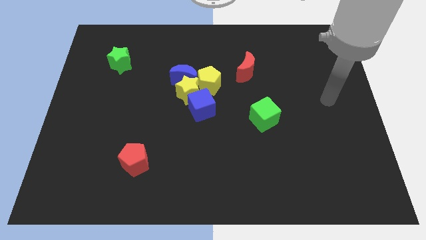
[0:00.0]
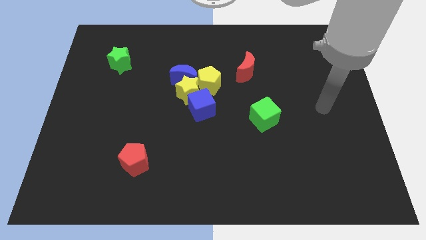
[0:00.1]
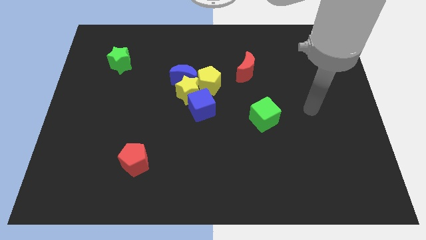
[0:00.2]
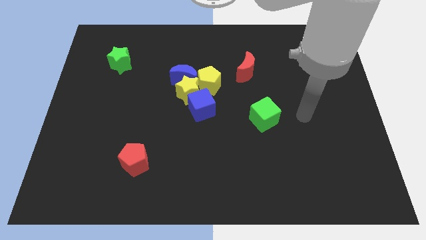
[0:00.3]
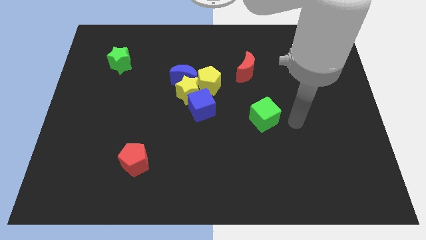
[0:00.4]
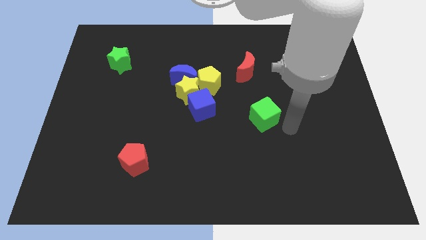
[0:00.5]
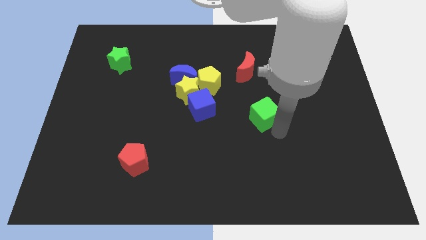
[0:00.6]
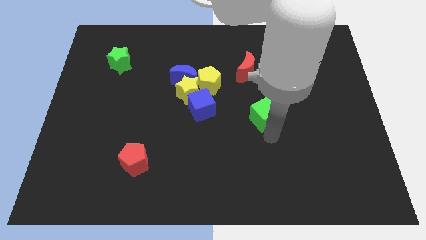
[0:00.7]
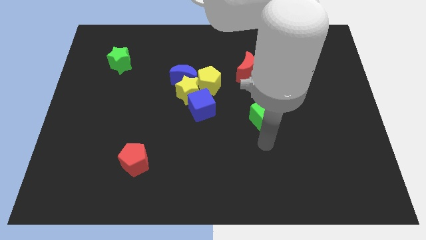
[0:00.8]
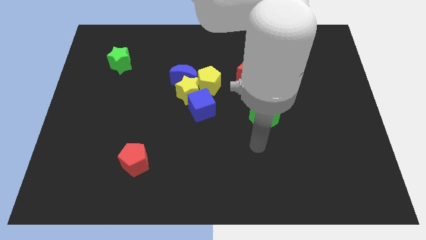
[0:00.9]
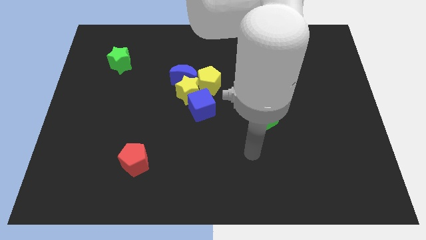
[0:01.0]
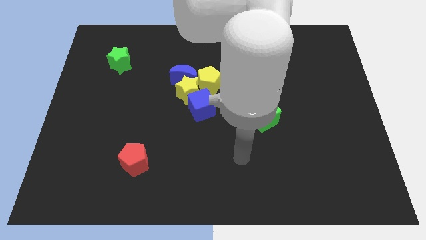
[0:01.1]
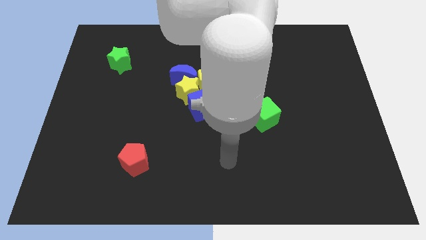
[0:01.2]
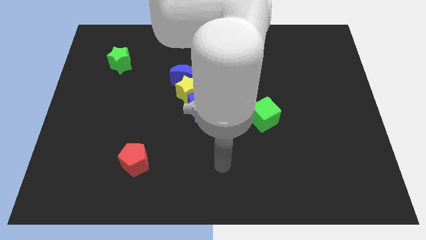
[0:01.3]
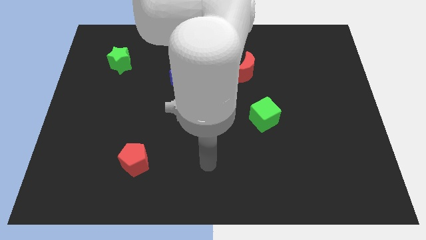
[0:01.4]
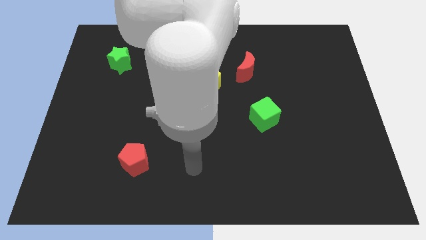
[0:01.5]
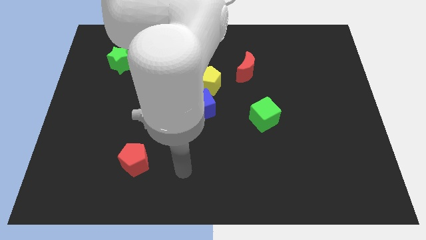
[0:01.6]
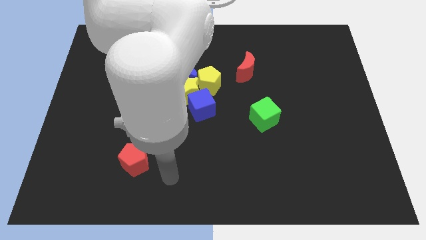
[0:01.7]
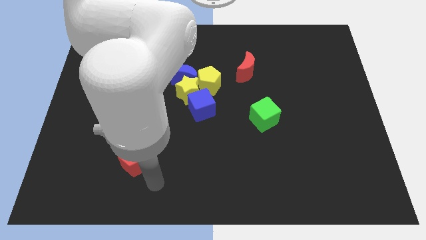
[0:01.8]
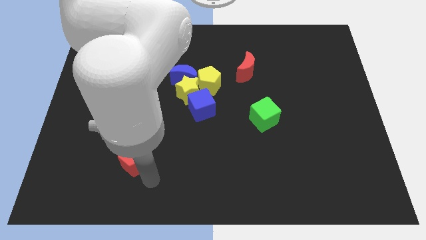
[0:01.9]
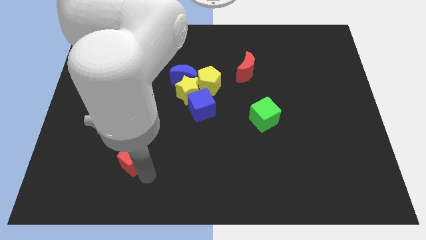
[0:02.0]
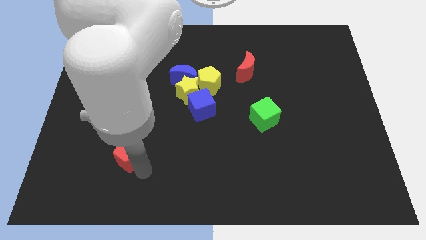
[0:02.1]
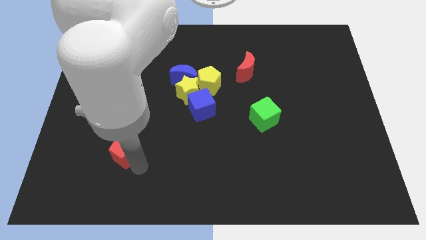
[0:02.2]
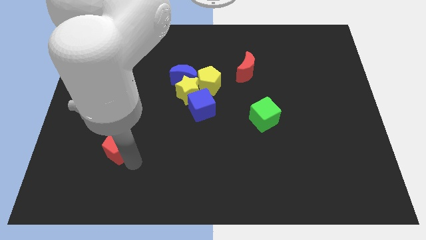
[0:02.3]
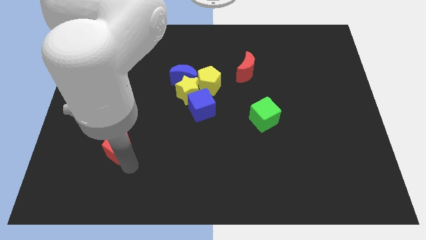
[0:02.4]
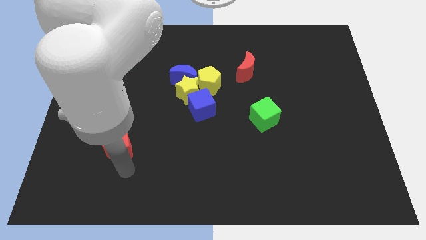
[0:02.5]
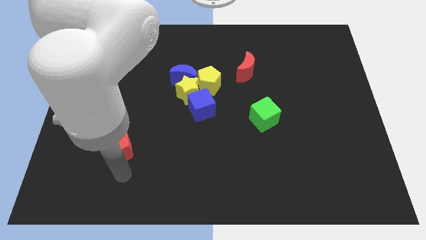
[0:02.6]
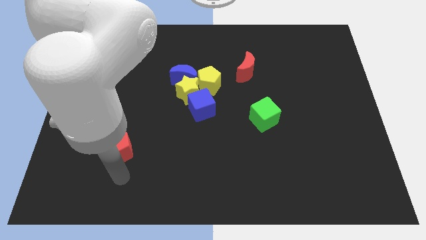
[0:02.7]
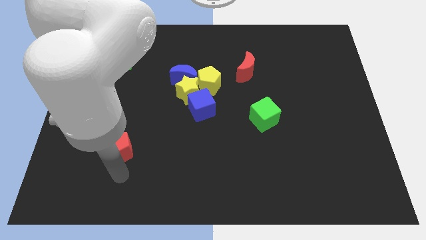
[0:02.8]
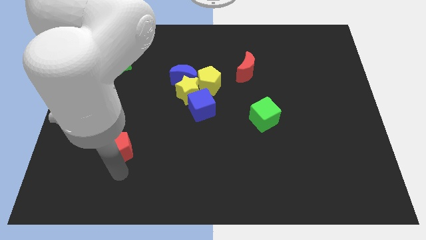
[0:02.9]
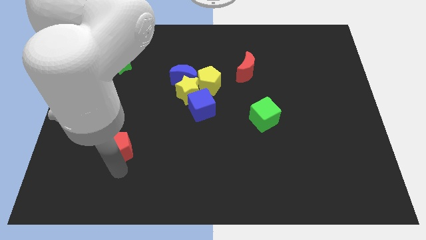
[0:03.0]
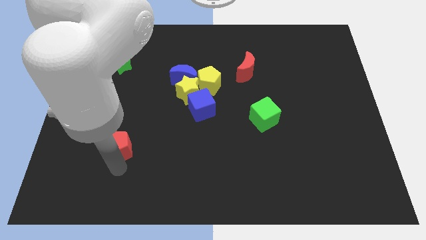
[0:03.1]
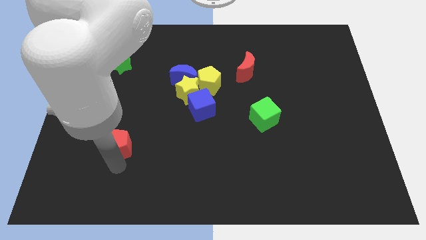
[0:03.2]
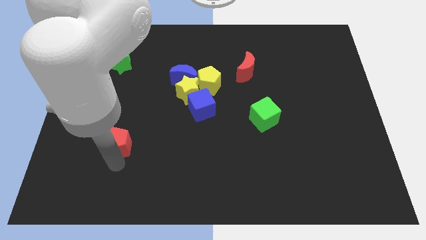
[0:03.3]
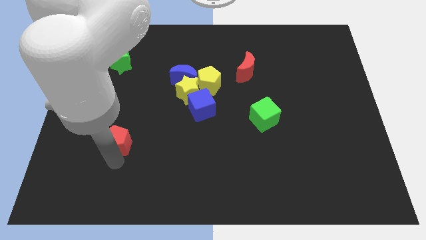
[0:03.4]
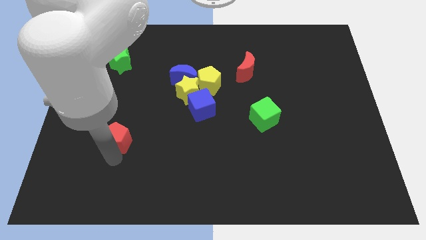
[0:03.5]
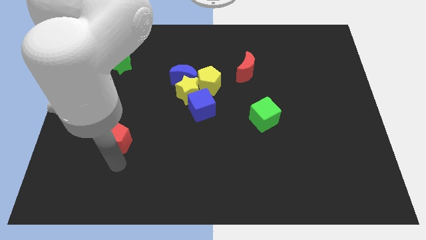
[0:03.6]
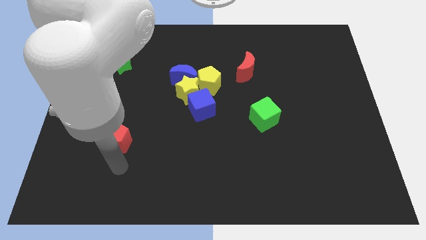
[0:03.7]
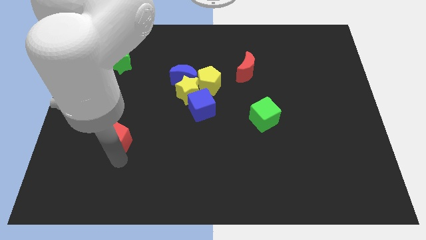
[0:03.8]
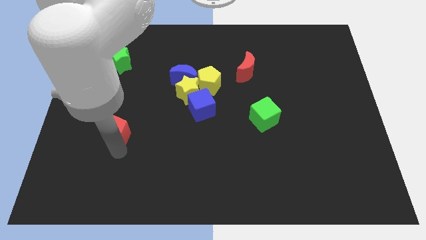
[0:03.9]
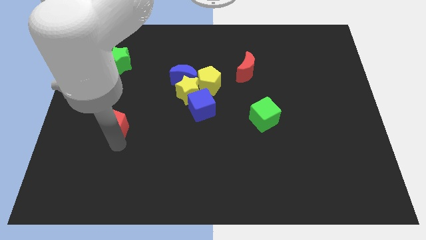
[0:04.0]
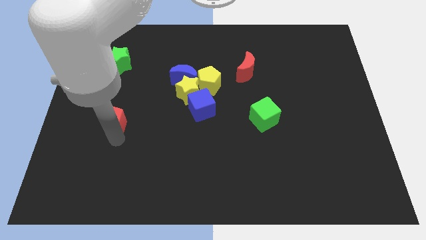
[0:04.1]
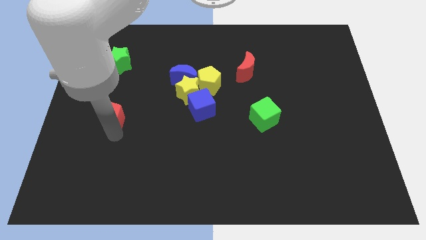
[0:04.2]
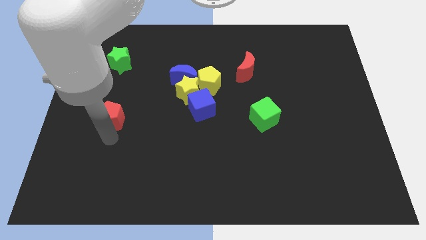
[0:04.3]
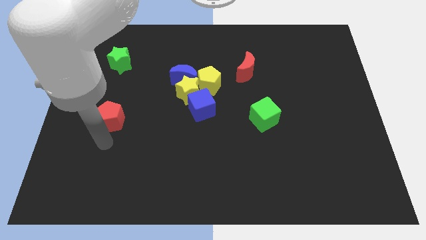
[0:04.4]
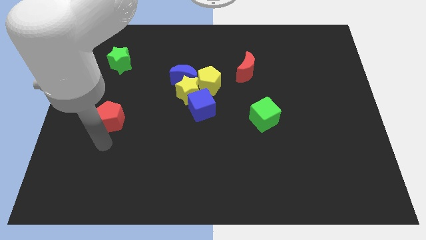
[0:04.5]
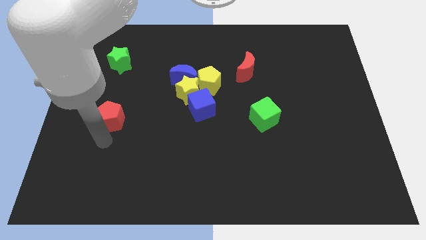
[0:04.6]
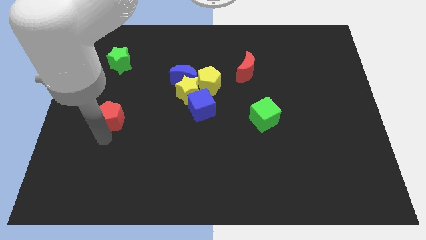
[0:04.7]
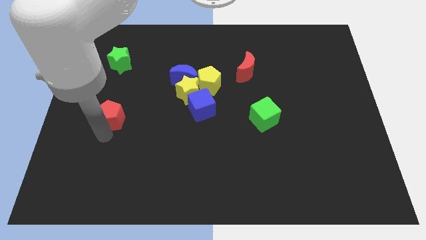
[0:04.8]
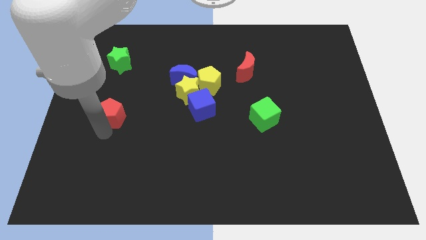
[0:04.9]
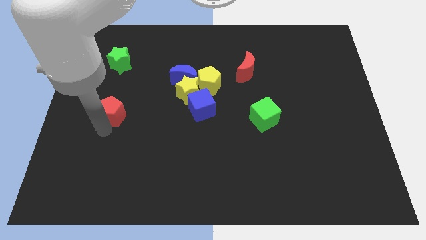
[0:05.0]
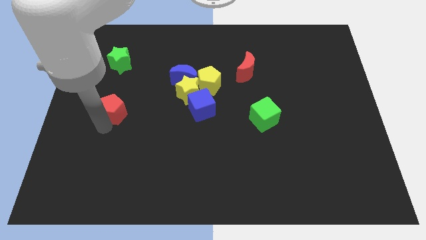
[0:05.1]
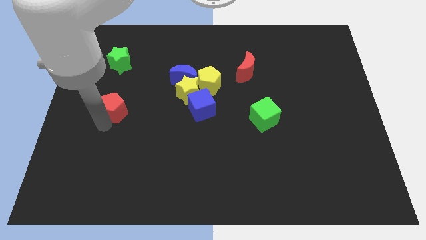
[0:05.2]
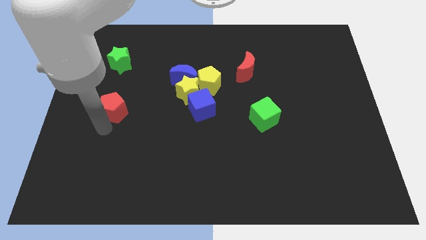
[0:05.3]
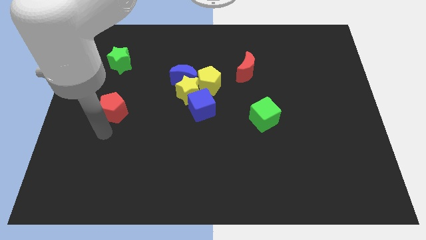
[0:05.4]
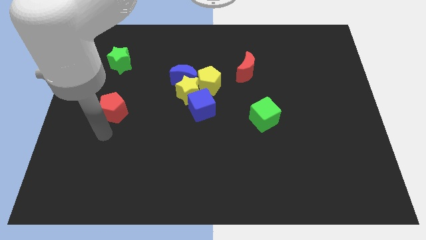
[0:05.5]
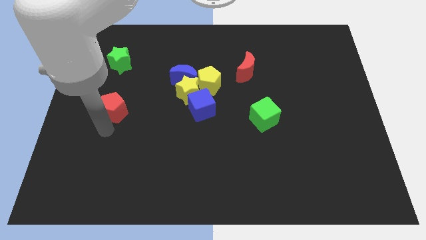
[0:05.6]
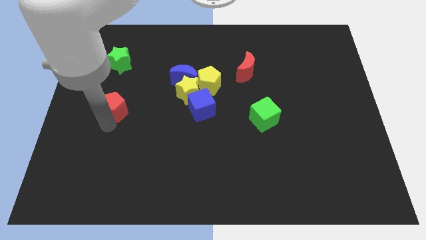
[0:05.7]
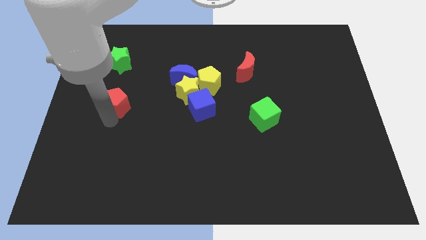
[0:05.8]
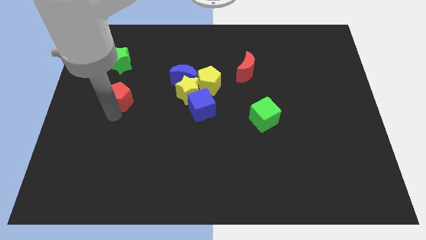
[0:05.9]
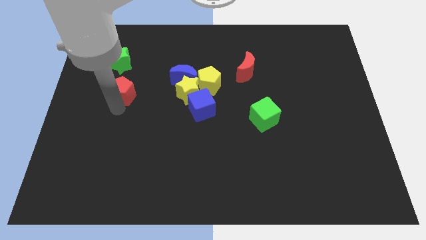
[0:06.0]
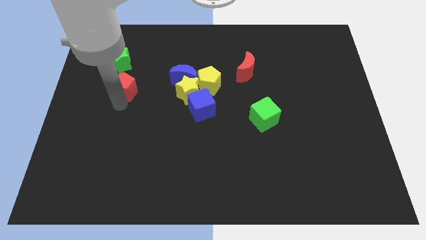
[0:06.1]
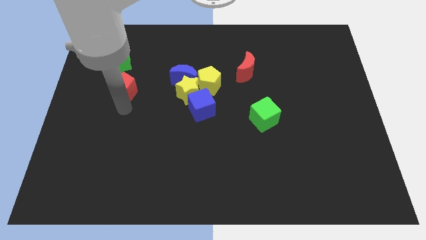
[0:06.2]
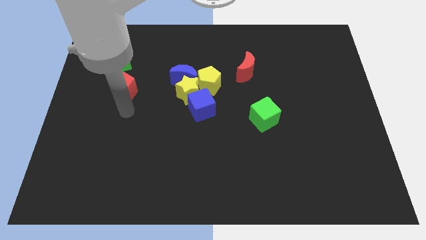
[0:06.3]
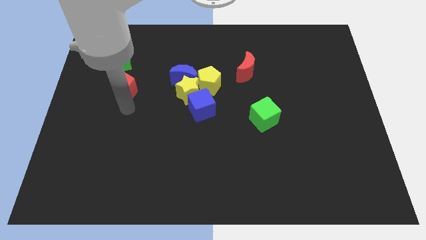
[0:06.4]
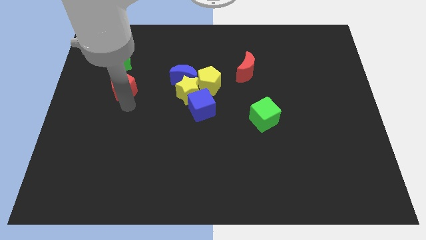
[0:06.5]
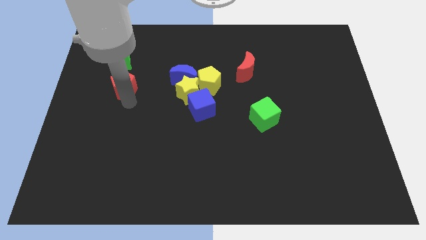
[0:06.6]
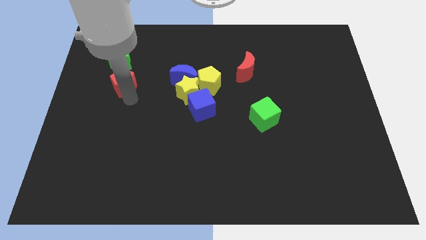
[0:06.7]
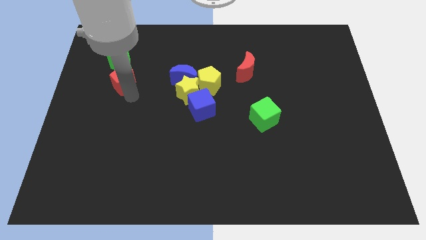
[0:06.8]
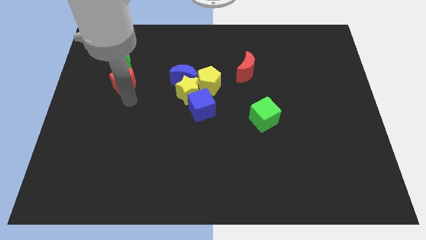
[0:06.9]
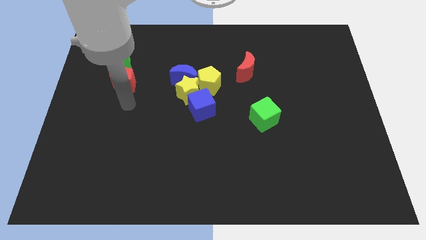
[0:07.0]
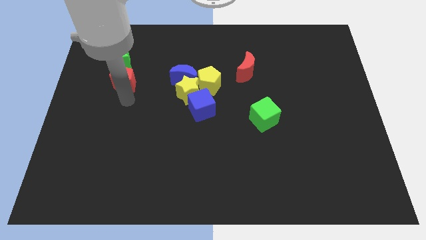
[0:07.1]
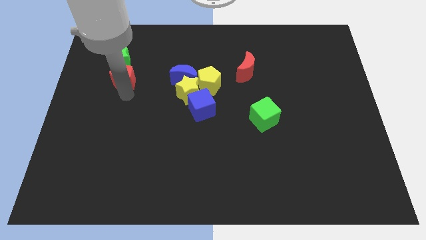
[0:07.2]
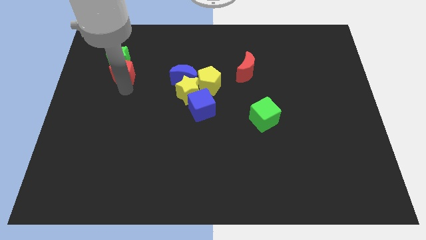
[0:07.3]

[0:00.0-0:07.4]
move the red pentagon close to the green star
